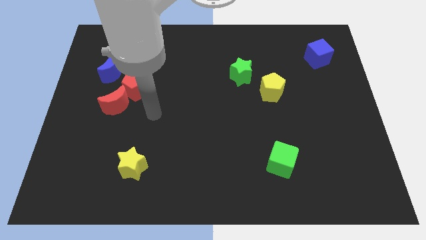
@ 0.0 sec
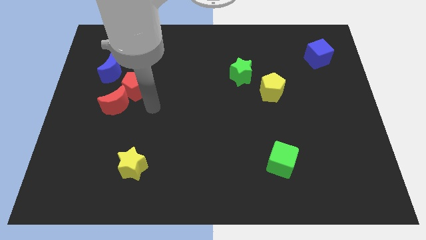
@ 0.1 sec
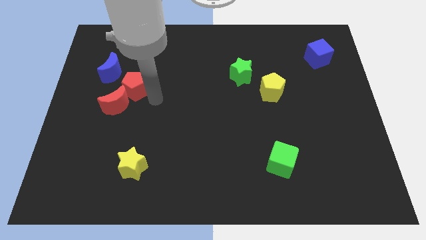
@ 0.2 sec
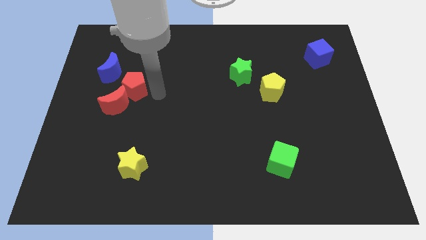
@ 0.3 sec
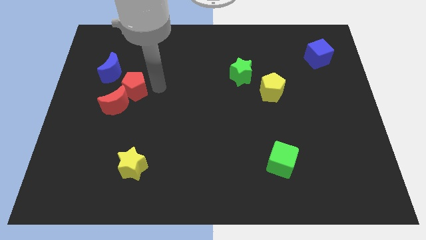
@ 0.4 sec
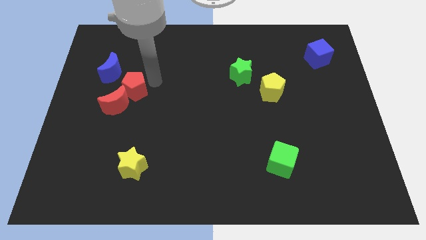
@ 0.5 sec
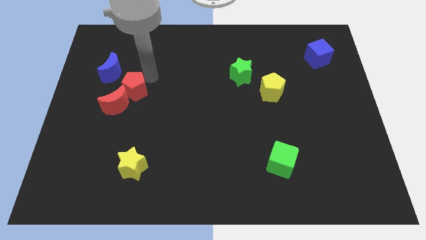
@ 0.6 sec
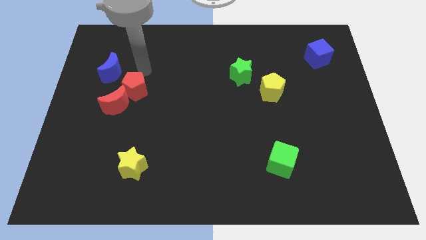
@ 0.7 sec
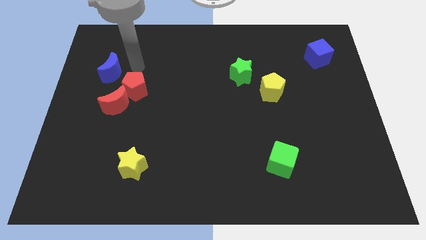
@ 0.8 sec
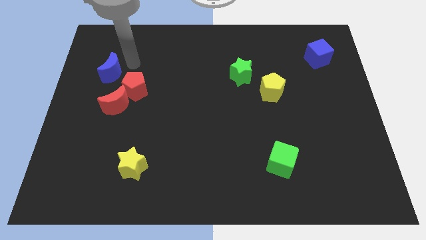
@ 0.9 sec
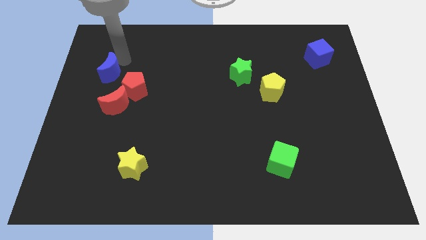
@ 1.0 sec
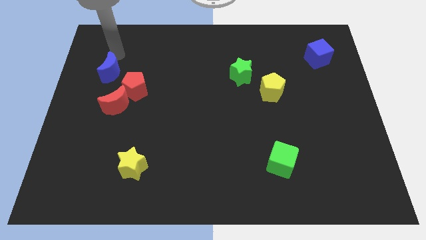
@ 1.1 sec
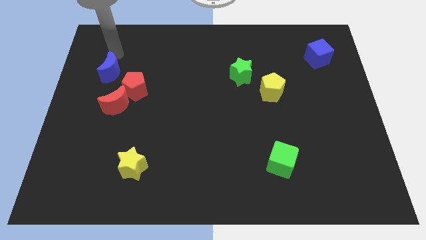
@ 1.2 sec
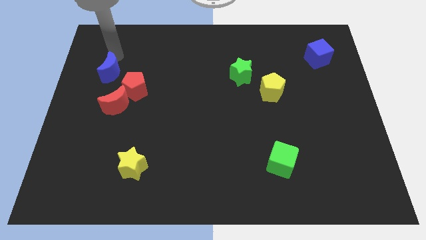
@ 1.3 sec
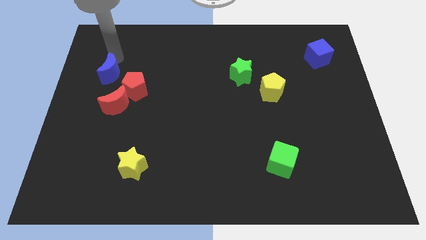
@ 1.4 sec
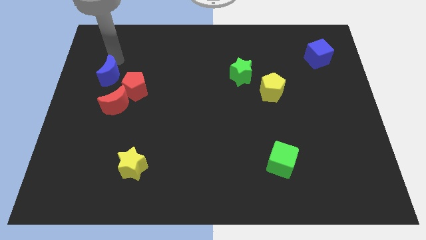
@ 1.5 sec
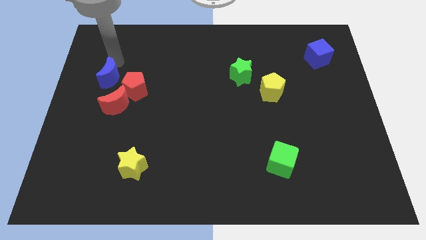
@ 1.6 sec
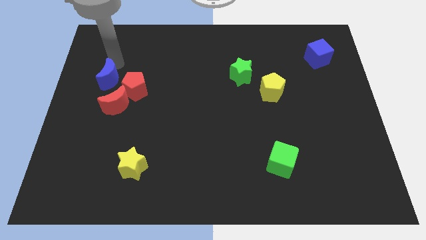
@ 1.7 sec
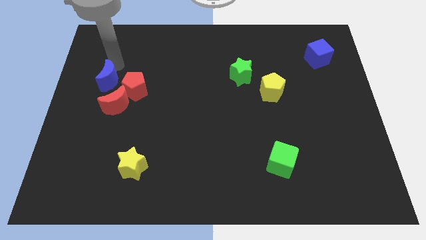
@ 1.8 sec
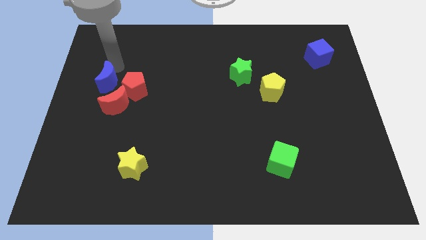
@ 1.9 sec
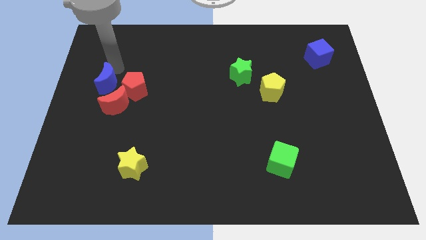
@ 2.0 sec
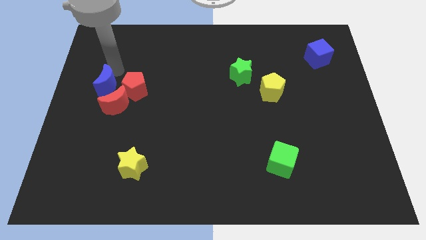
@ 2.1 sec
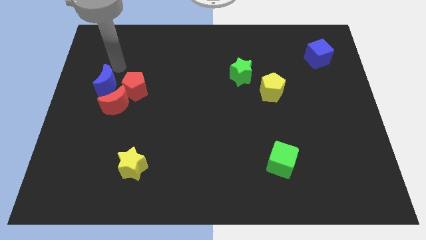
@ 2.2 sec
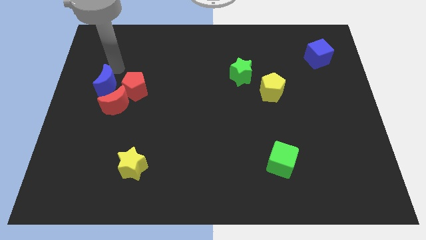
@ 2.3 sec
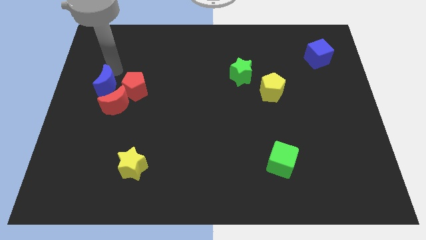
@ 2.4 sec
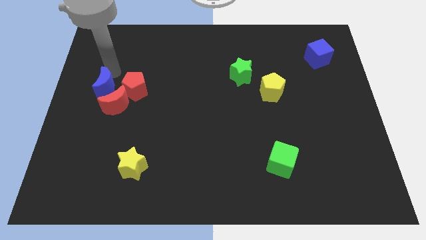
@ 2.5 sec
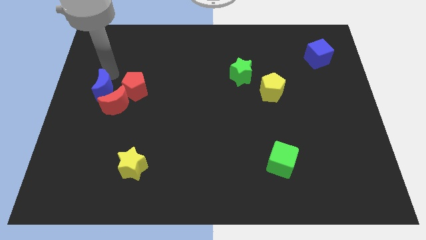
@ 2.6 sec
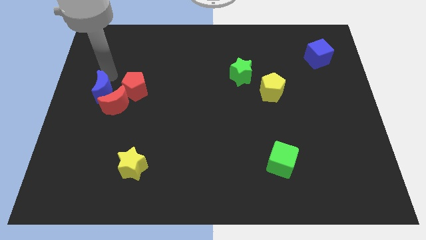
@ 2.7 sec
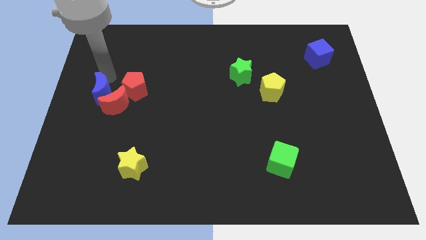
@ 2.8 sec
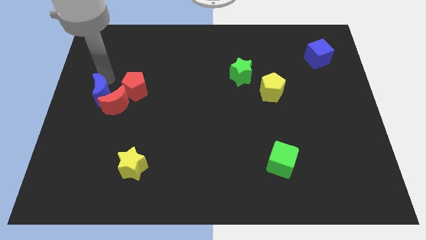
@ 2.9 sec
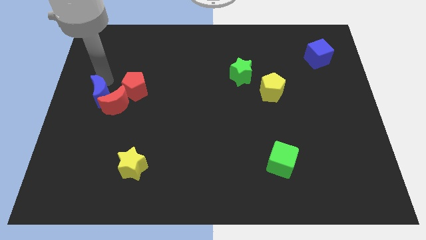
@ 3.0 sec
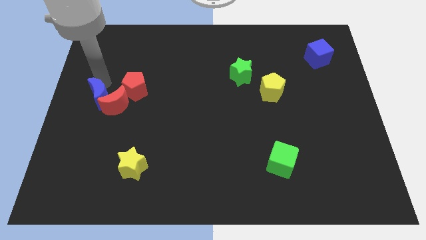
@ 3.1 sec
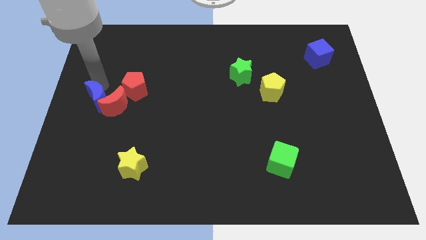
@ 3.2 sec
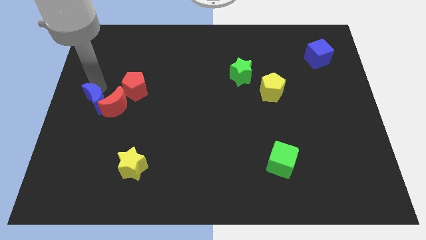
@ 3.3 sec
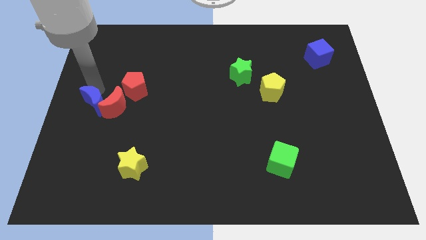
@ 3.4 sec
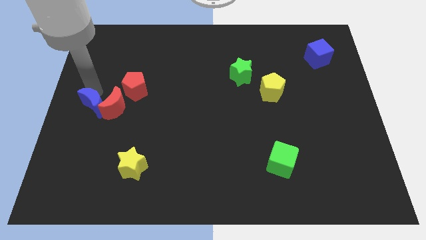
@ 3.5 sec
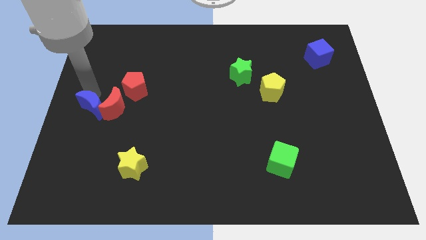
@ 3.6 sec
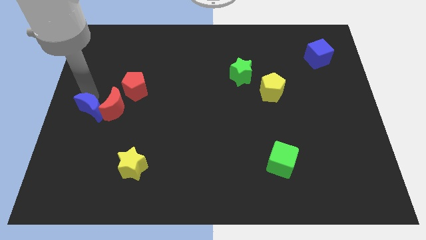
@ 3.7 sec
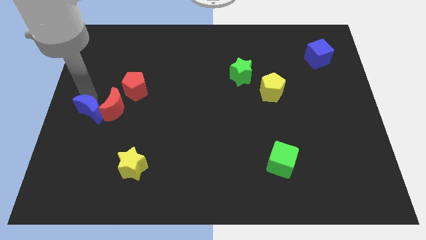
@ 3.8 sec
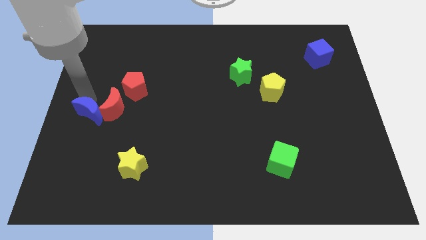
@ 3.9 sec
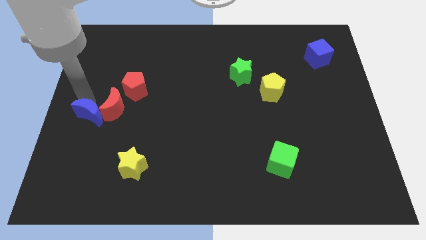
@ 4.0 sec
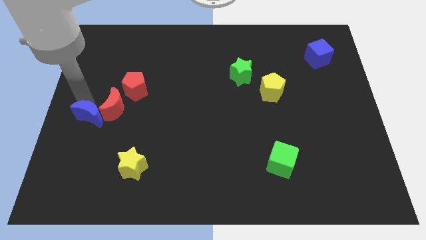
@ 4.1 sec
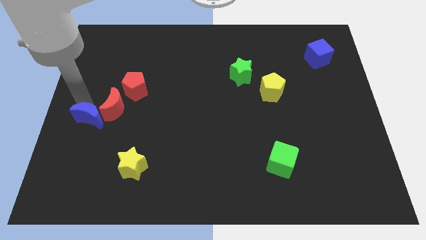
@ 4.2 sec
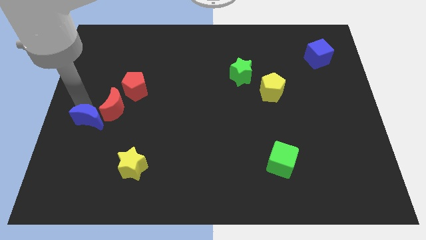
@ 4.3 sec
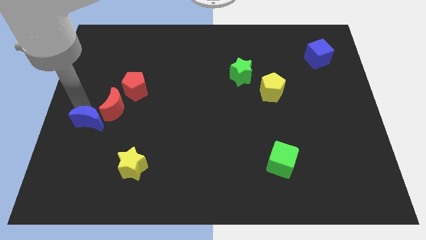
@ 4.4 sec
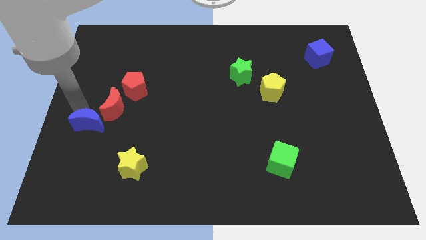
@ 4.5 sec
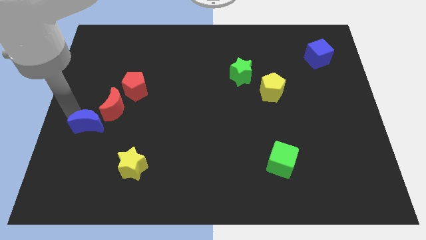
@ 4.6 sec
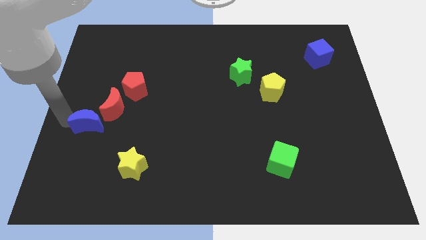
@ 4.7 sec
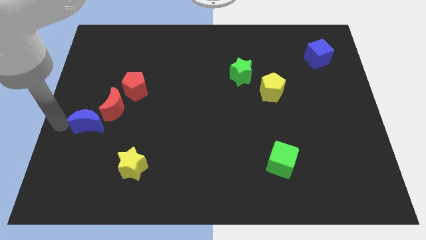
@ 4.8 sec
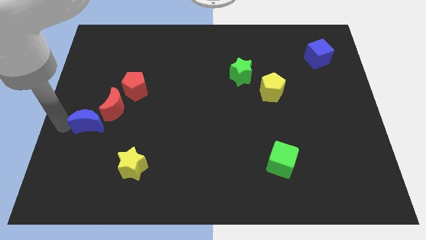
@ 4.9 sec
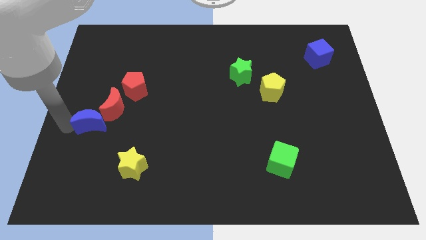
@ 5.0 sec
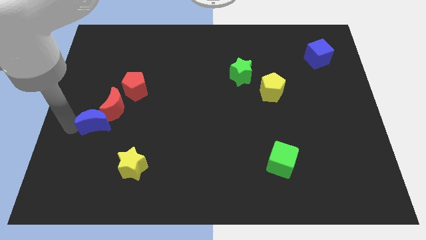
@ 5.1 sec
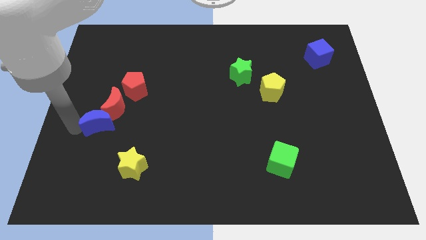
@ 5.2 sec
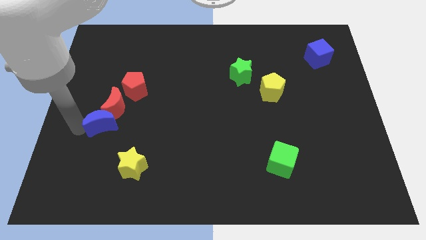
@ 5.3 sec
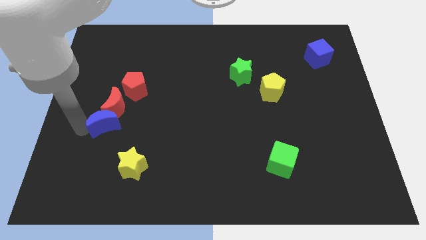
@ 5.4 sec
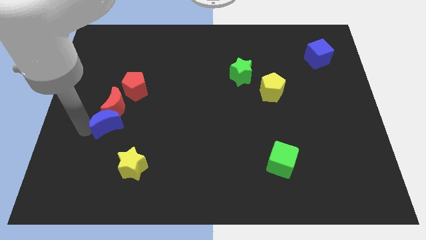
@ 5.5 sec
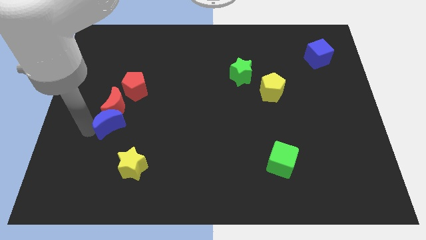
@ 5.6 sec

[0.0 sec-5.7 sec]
put the blue moon below the red pentagon

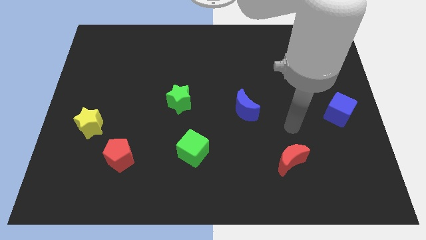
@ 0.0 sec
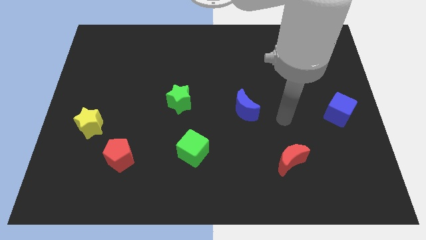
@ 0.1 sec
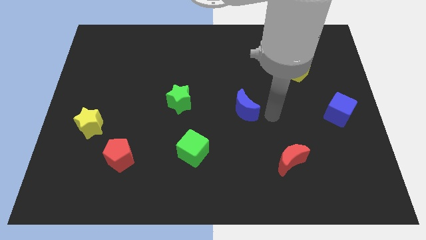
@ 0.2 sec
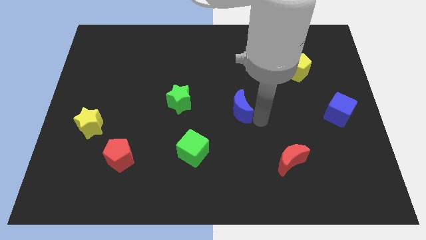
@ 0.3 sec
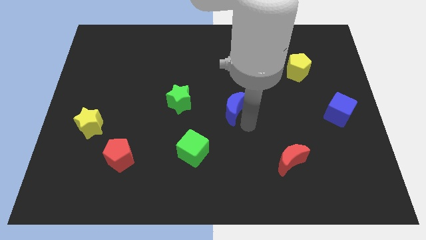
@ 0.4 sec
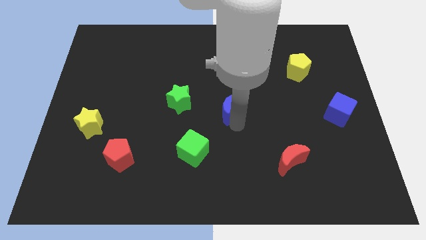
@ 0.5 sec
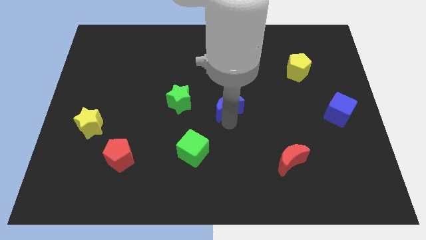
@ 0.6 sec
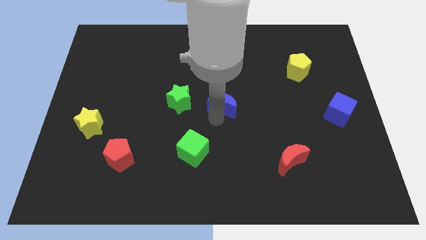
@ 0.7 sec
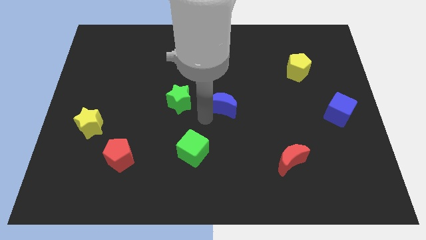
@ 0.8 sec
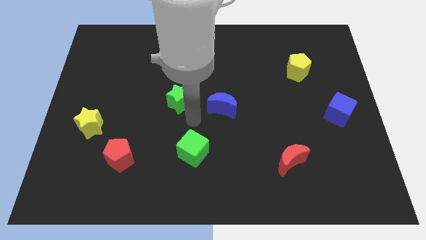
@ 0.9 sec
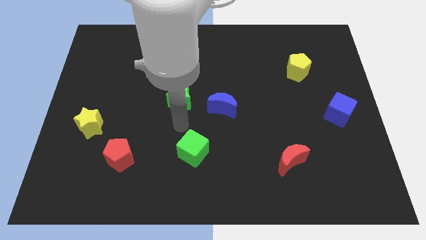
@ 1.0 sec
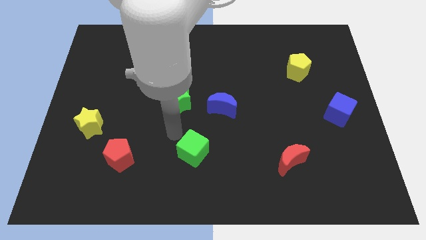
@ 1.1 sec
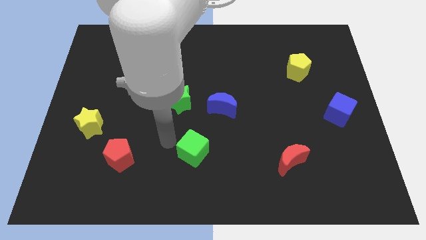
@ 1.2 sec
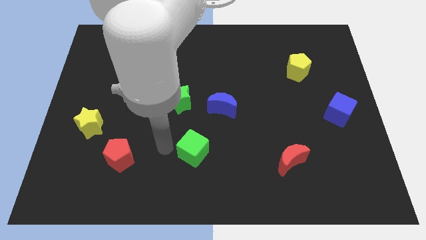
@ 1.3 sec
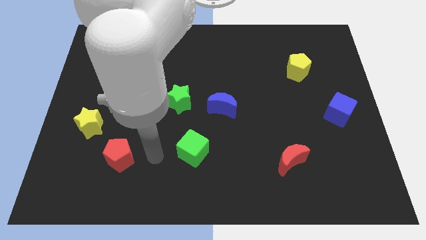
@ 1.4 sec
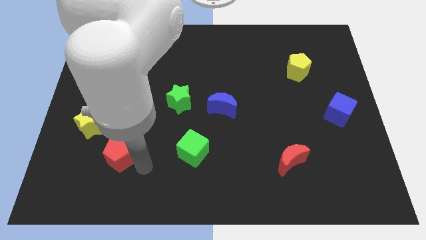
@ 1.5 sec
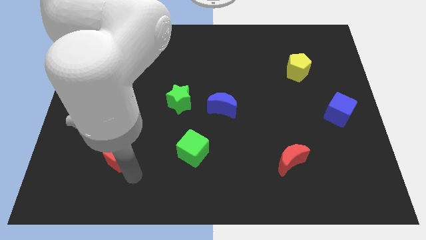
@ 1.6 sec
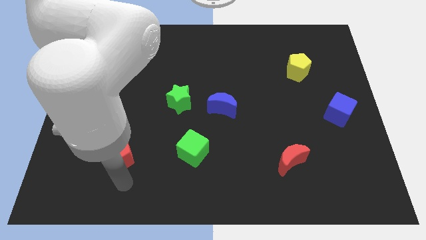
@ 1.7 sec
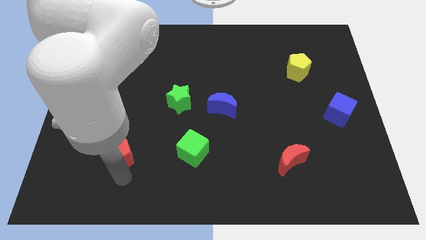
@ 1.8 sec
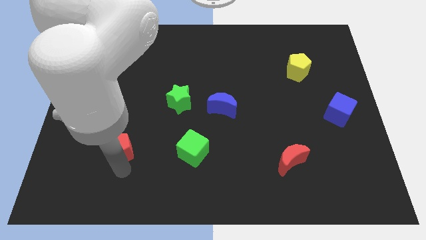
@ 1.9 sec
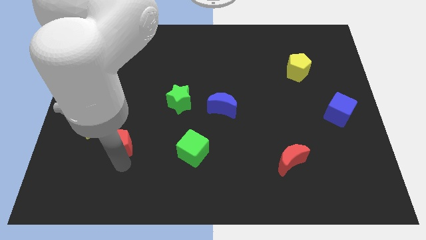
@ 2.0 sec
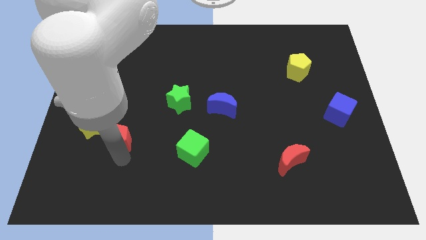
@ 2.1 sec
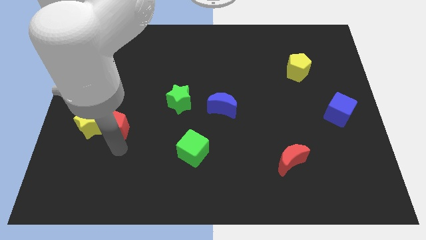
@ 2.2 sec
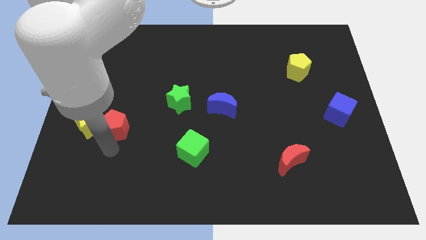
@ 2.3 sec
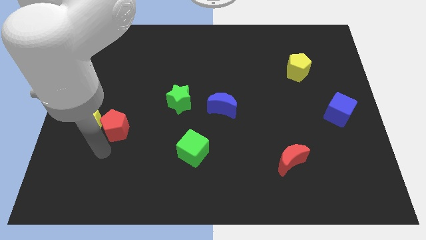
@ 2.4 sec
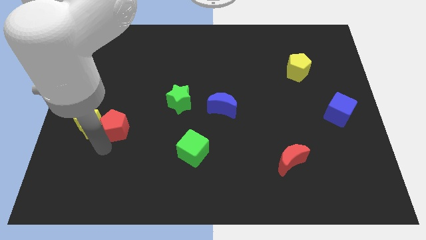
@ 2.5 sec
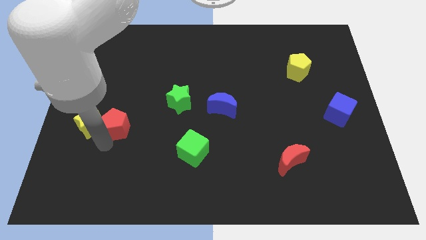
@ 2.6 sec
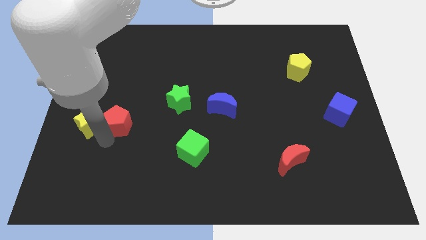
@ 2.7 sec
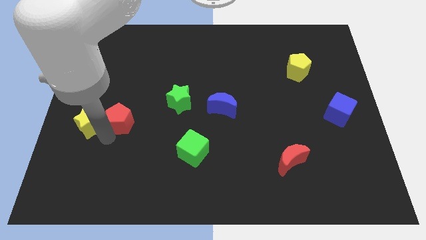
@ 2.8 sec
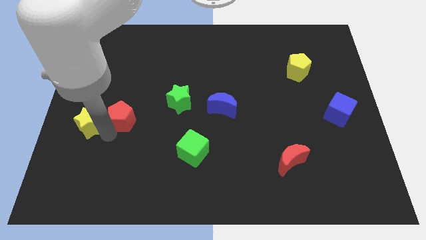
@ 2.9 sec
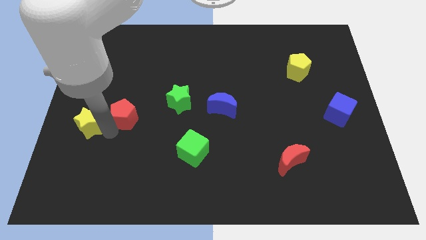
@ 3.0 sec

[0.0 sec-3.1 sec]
slide the red pentagon just left of the green star
